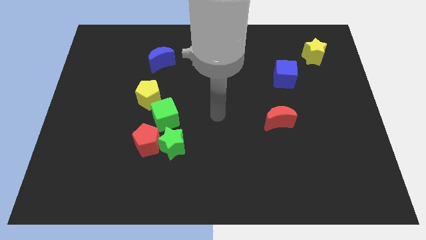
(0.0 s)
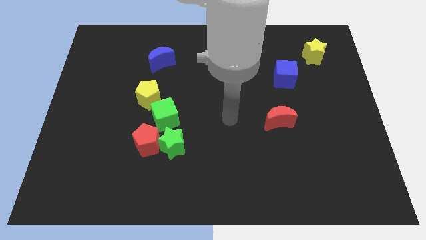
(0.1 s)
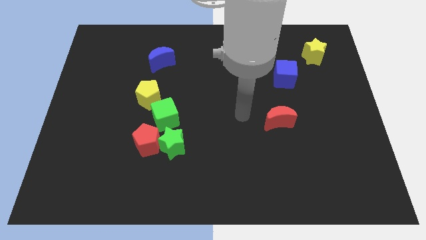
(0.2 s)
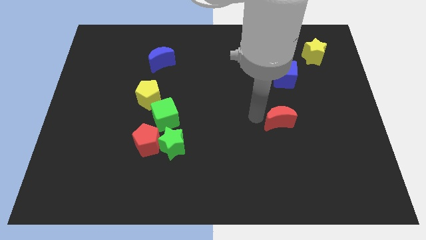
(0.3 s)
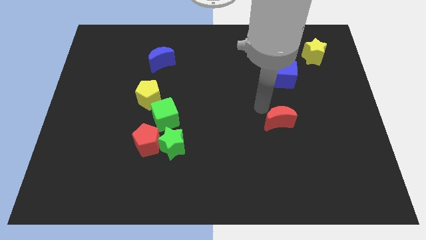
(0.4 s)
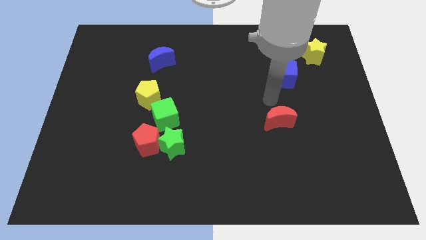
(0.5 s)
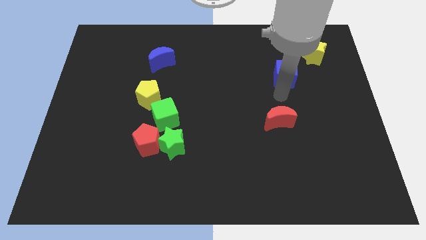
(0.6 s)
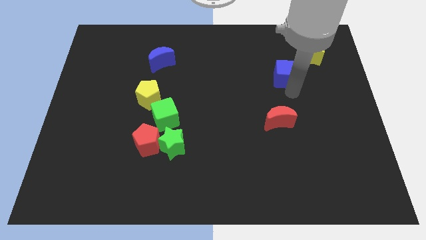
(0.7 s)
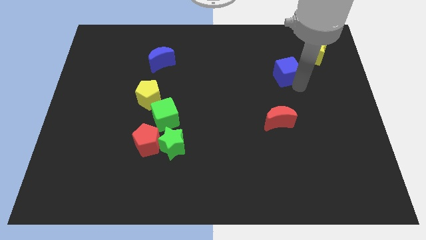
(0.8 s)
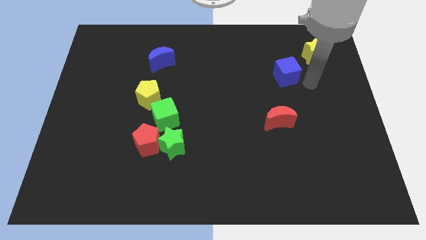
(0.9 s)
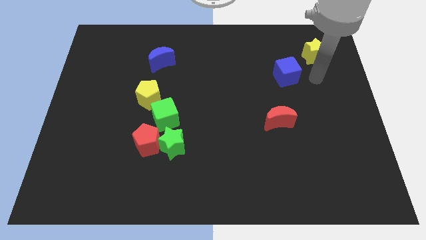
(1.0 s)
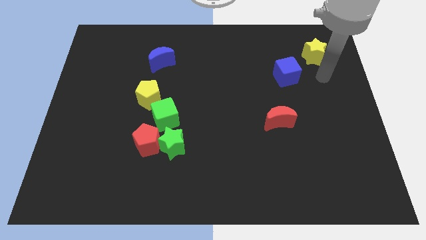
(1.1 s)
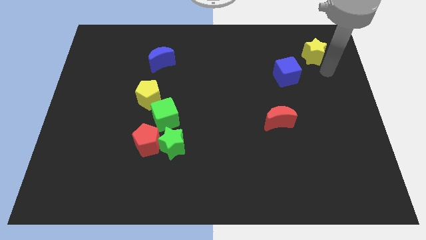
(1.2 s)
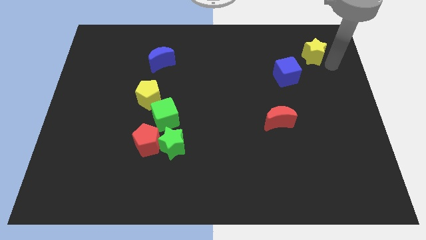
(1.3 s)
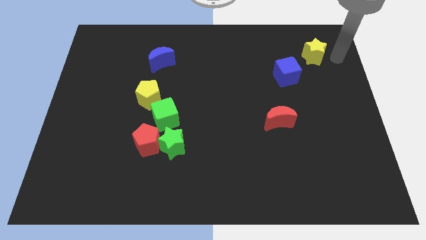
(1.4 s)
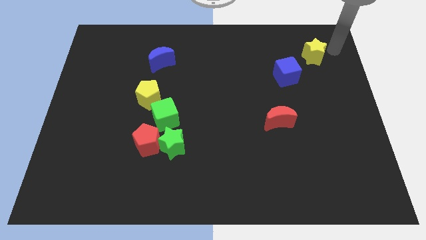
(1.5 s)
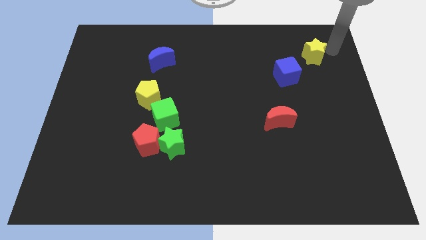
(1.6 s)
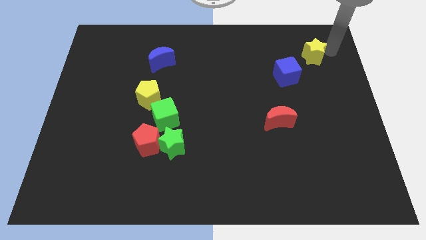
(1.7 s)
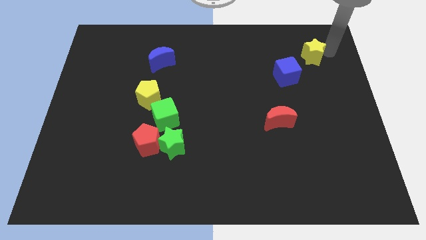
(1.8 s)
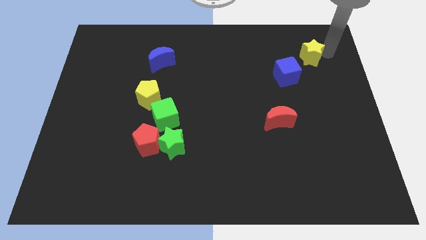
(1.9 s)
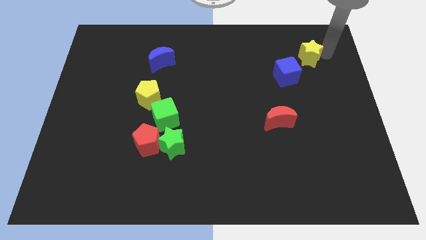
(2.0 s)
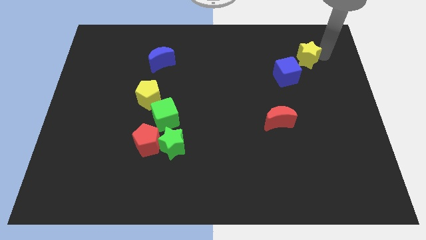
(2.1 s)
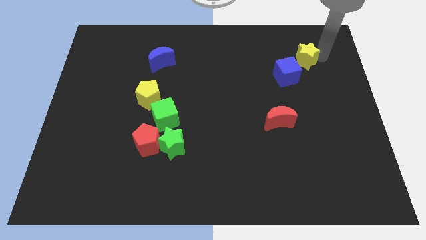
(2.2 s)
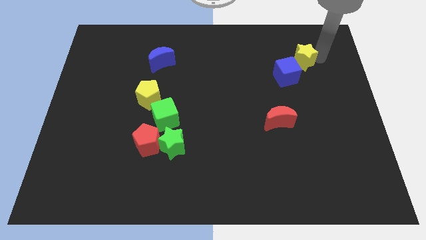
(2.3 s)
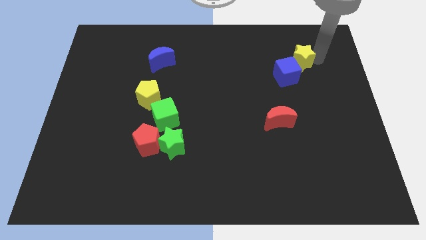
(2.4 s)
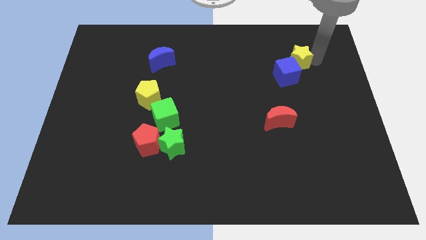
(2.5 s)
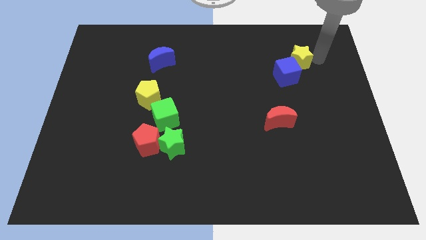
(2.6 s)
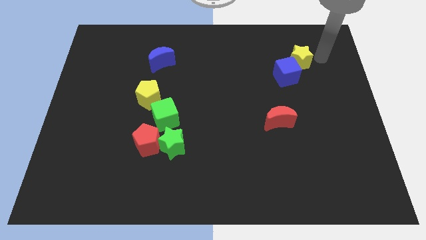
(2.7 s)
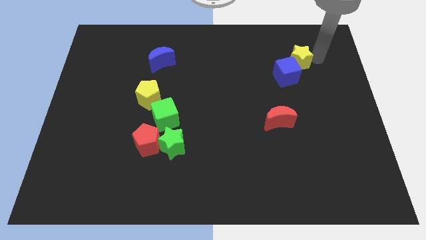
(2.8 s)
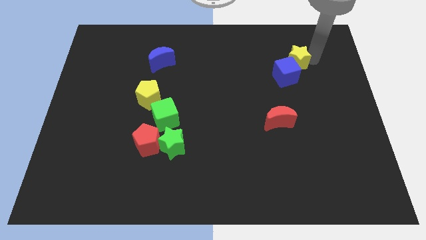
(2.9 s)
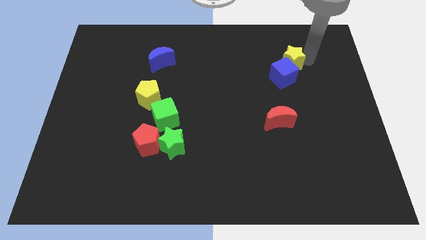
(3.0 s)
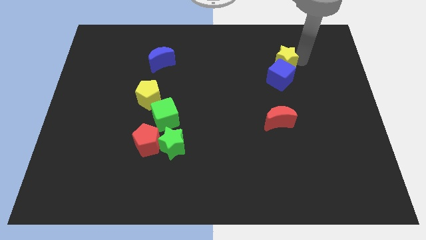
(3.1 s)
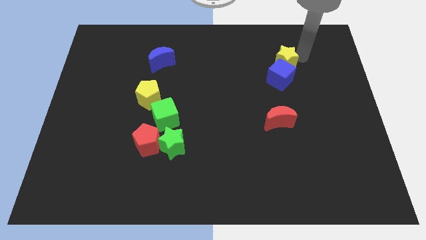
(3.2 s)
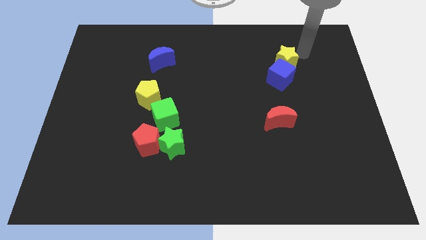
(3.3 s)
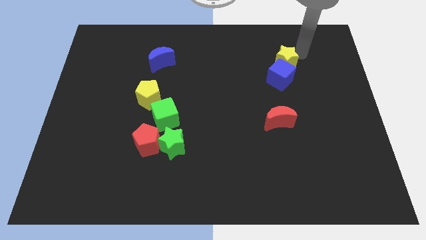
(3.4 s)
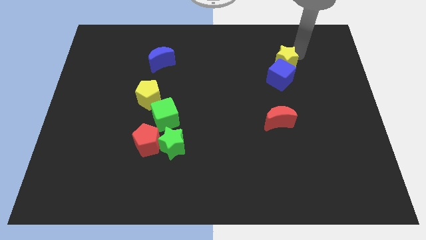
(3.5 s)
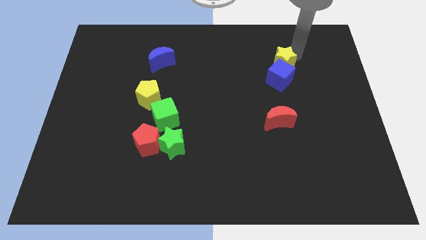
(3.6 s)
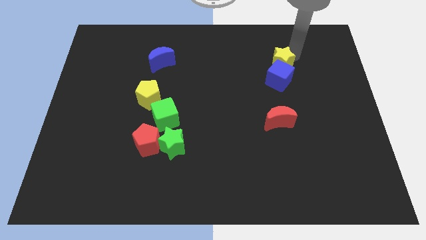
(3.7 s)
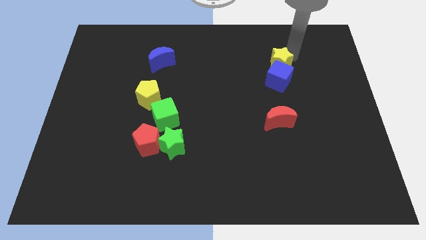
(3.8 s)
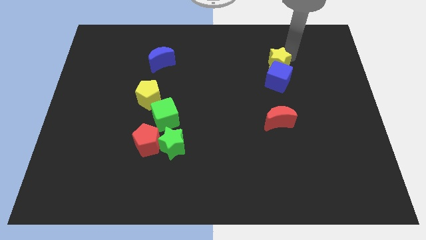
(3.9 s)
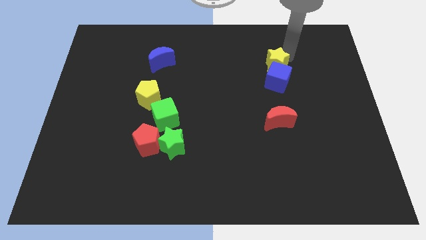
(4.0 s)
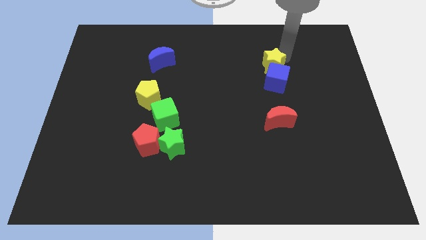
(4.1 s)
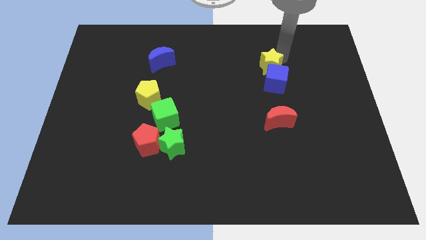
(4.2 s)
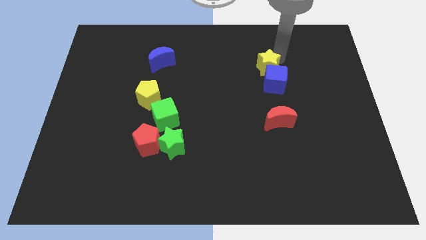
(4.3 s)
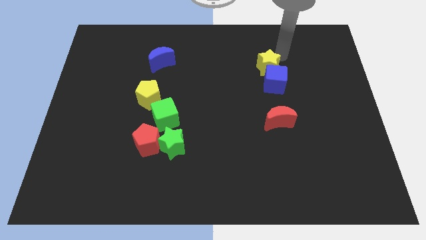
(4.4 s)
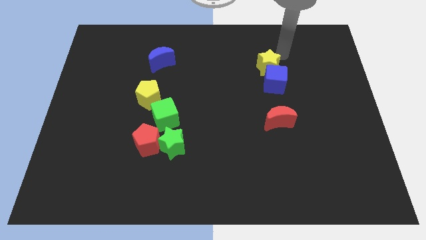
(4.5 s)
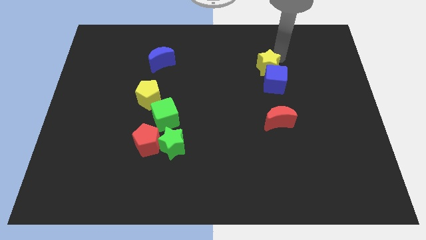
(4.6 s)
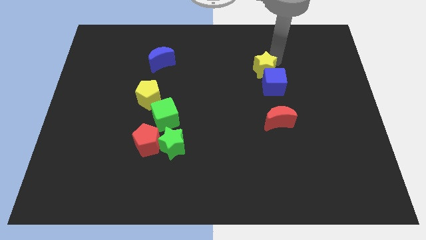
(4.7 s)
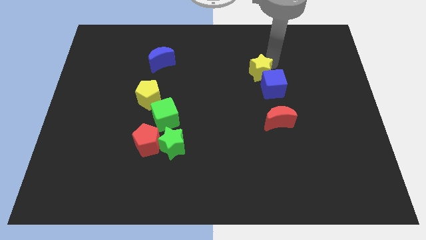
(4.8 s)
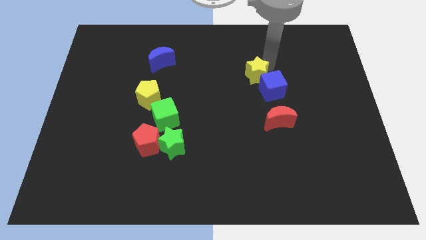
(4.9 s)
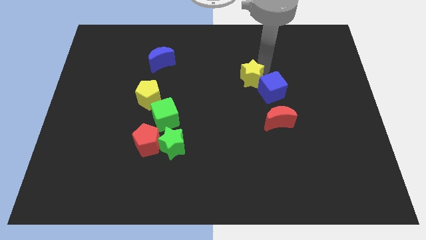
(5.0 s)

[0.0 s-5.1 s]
move the yellow star to the center of the board

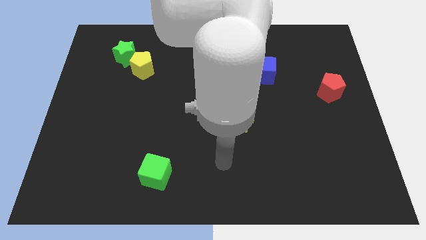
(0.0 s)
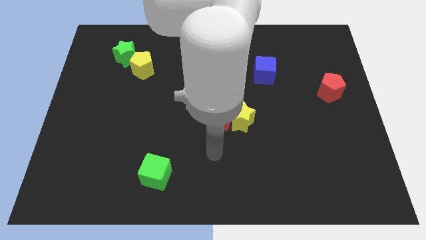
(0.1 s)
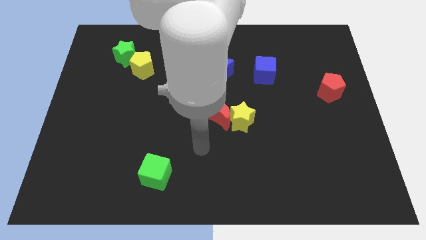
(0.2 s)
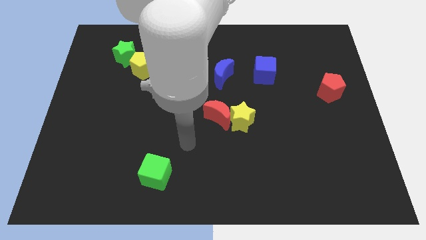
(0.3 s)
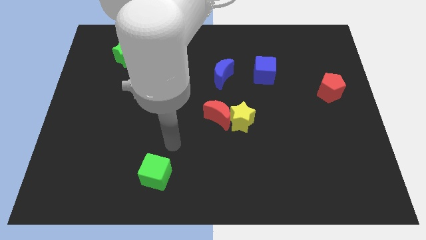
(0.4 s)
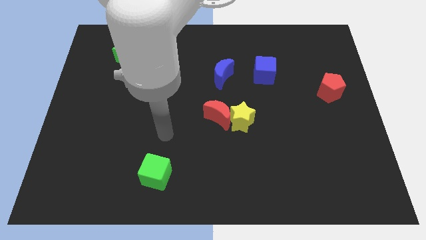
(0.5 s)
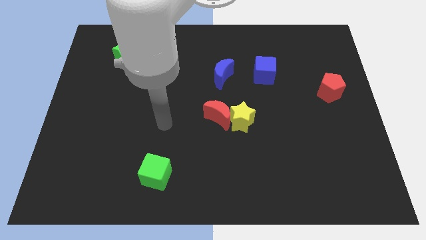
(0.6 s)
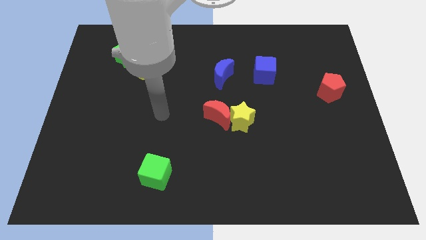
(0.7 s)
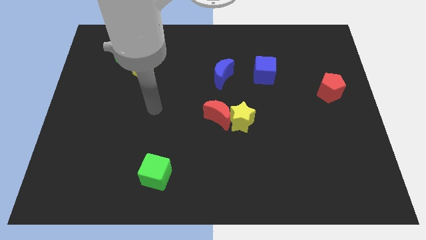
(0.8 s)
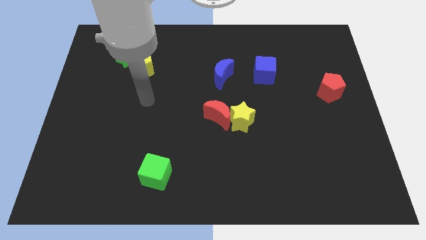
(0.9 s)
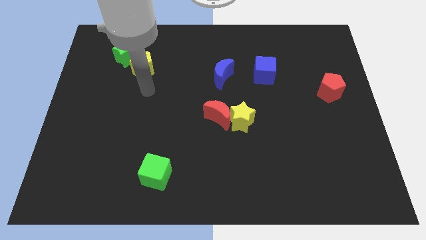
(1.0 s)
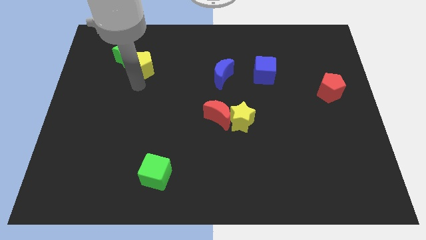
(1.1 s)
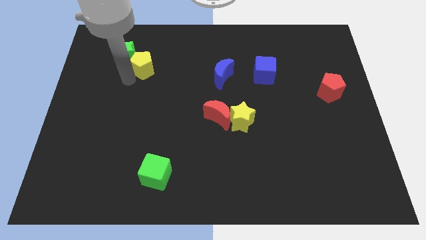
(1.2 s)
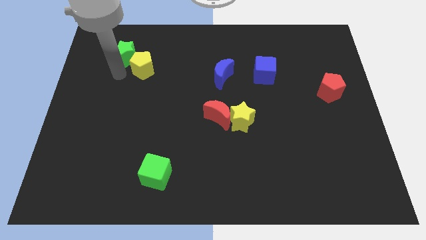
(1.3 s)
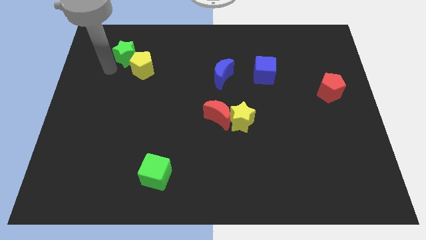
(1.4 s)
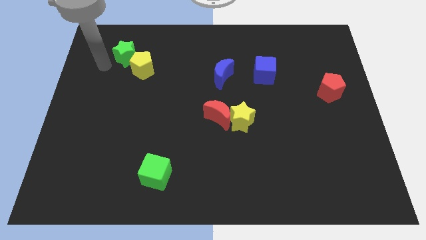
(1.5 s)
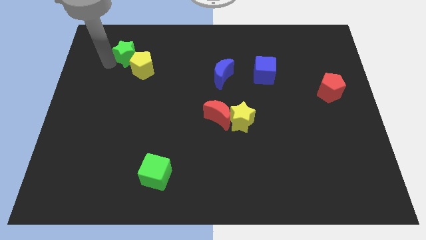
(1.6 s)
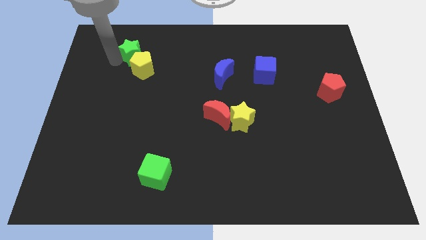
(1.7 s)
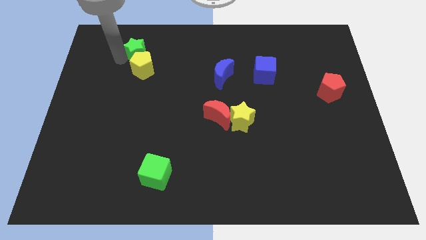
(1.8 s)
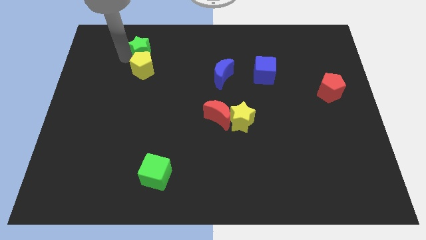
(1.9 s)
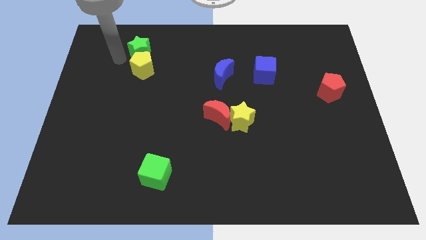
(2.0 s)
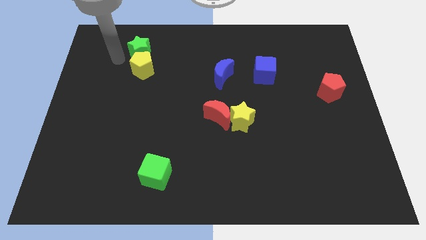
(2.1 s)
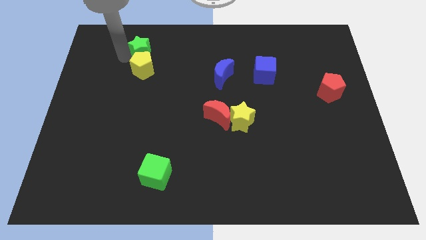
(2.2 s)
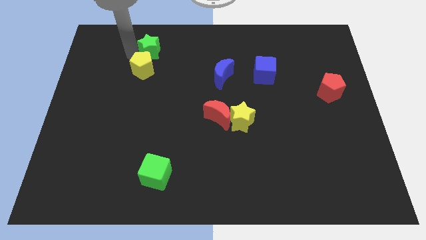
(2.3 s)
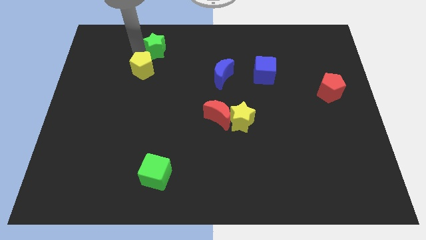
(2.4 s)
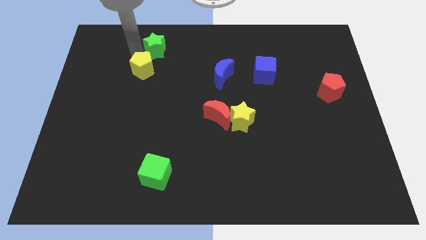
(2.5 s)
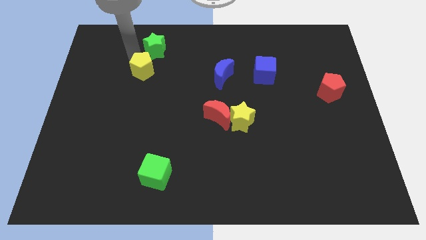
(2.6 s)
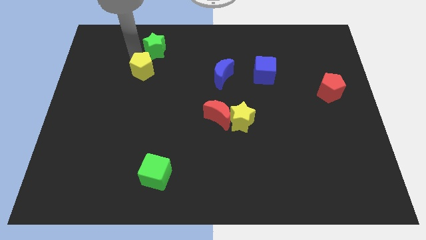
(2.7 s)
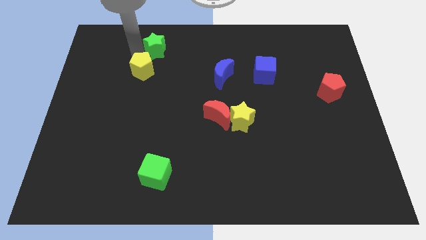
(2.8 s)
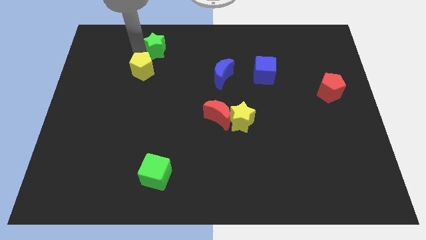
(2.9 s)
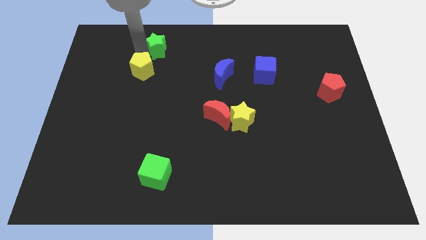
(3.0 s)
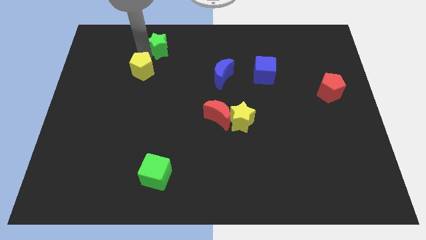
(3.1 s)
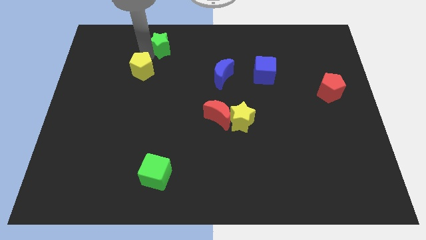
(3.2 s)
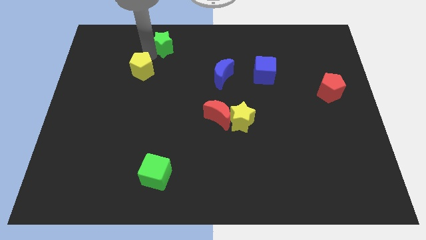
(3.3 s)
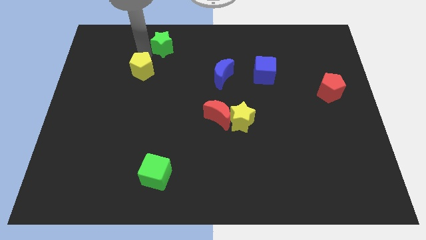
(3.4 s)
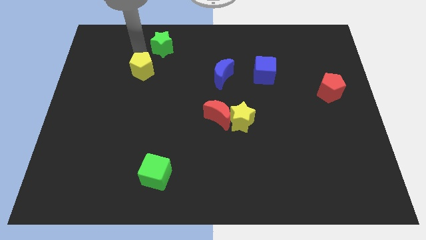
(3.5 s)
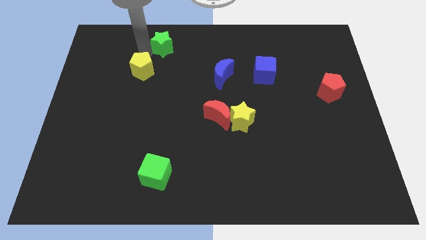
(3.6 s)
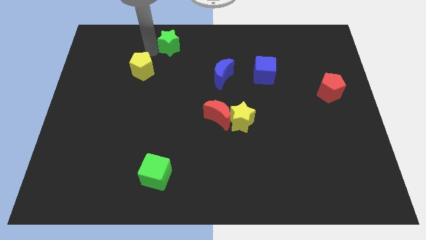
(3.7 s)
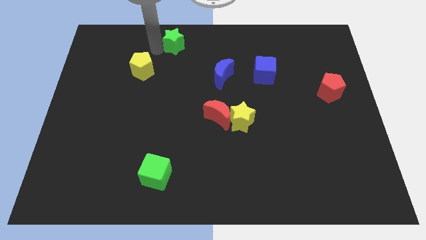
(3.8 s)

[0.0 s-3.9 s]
push the green star to the top
